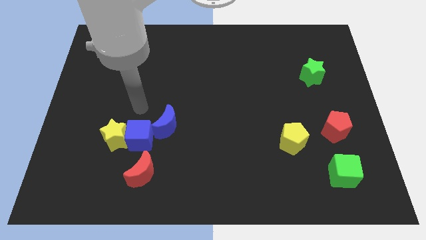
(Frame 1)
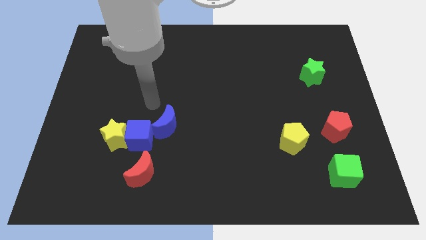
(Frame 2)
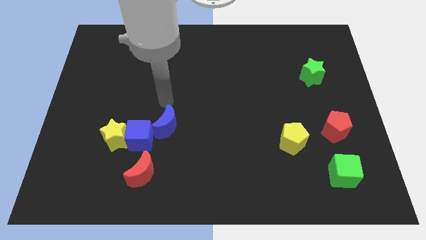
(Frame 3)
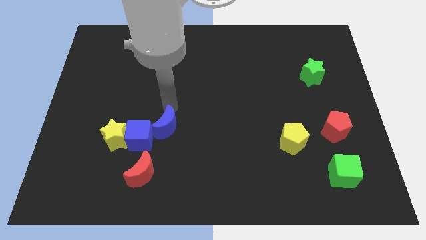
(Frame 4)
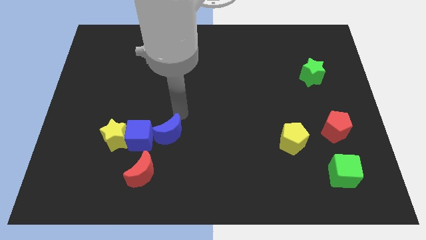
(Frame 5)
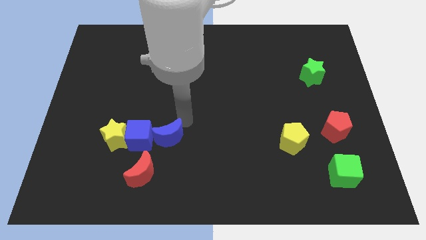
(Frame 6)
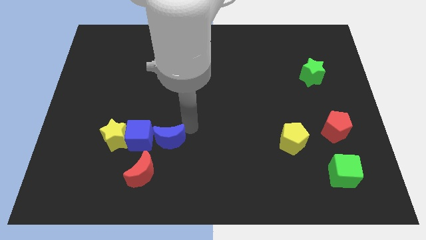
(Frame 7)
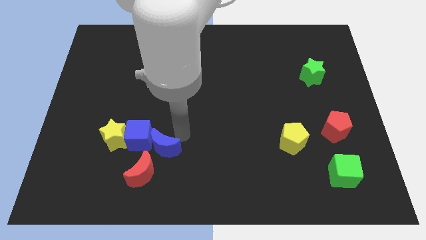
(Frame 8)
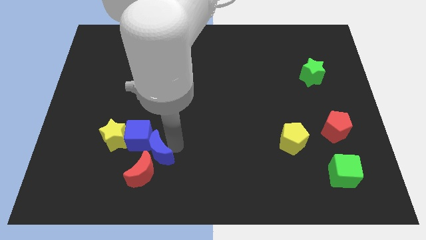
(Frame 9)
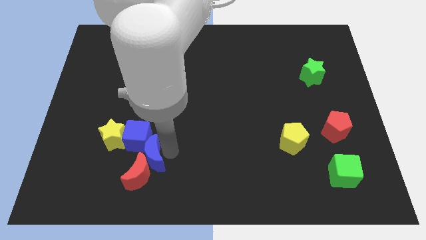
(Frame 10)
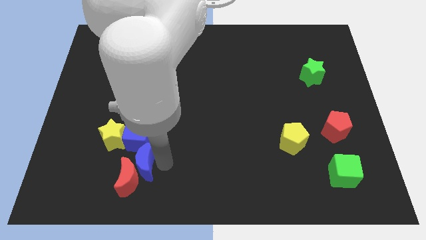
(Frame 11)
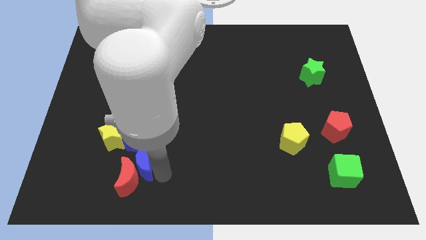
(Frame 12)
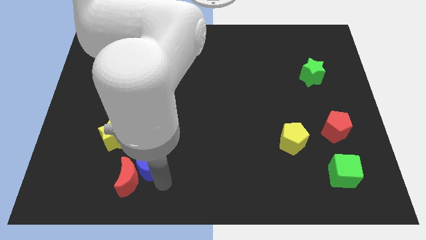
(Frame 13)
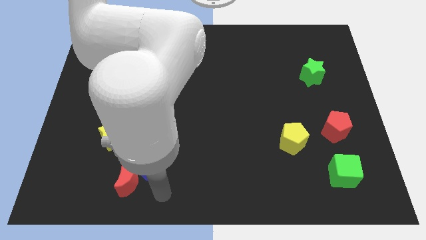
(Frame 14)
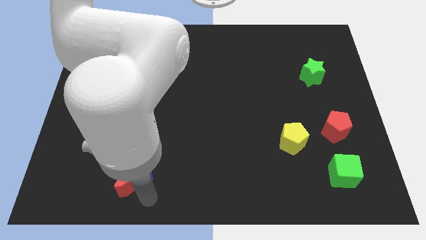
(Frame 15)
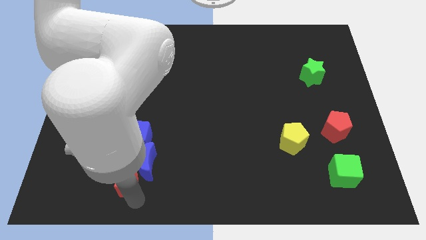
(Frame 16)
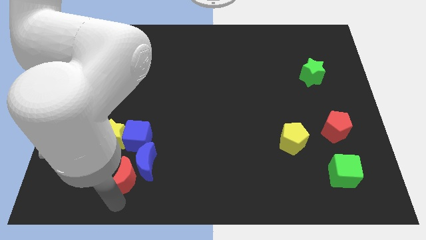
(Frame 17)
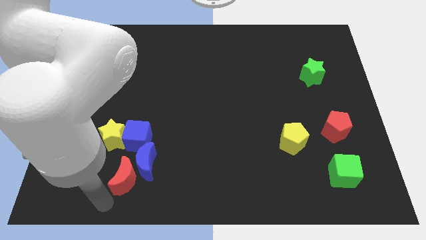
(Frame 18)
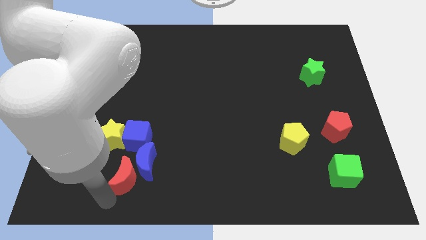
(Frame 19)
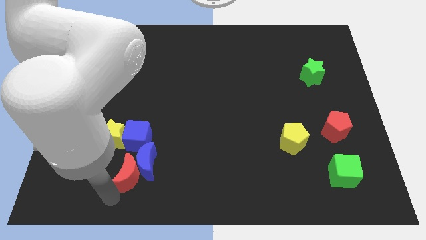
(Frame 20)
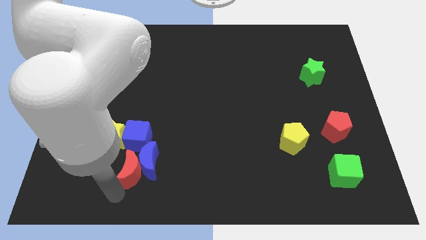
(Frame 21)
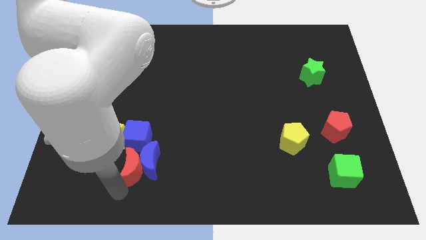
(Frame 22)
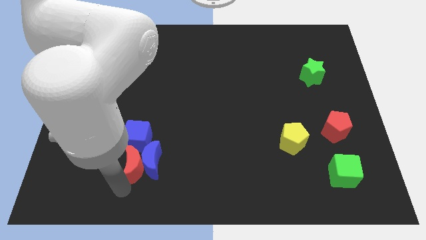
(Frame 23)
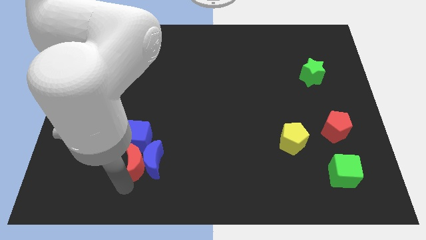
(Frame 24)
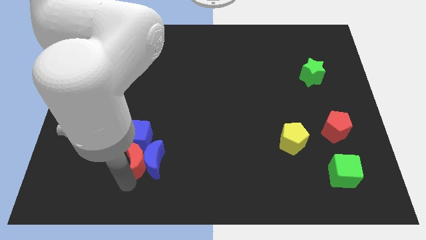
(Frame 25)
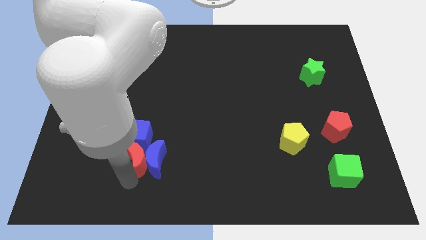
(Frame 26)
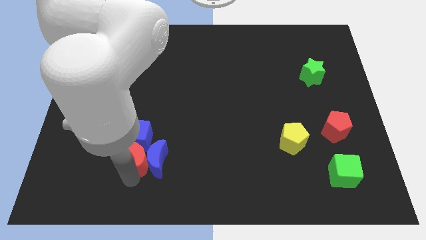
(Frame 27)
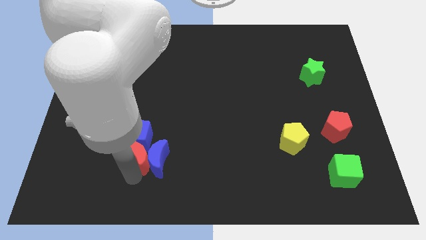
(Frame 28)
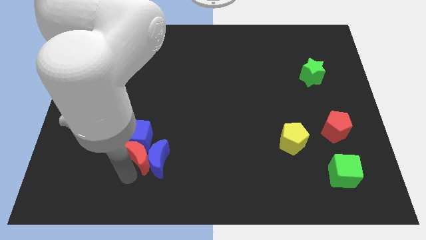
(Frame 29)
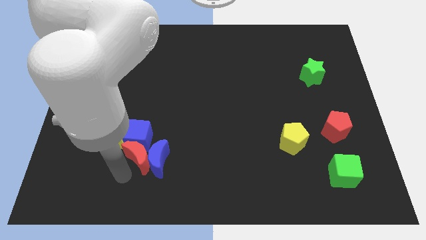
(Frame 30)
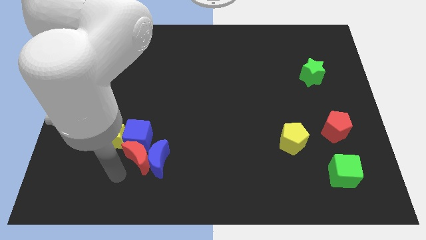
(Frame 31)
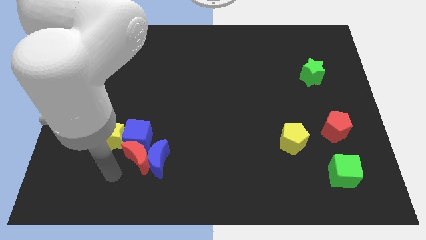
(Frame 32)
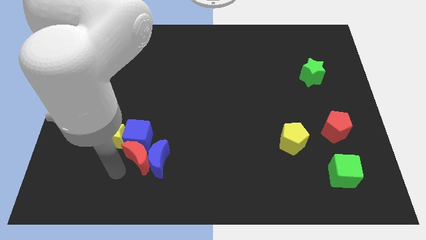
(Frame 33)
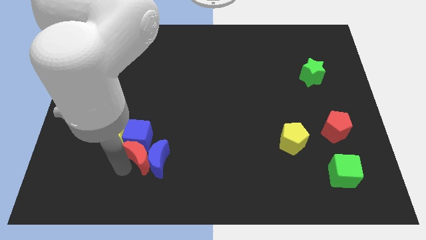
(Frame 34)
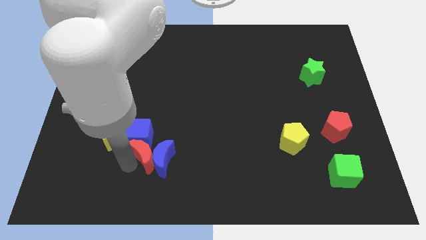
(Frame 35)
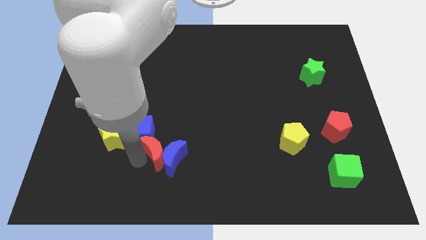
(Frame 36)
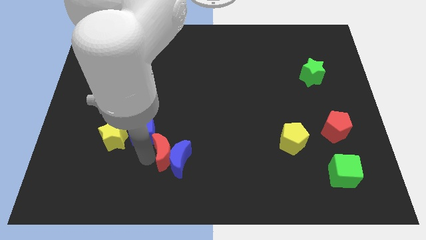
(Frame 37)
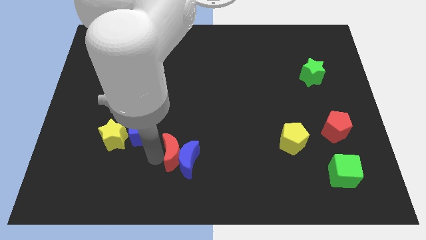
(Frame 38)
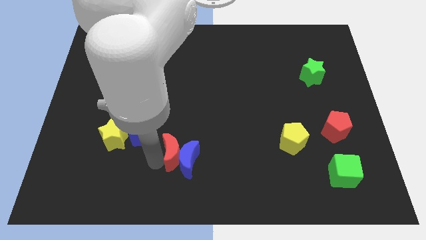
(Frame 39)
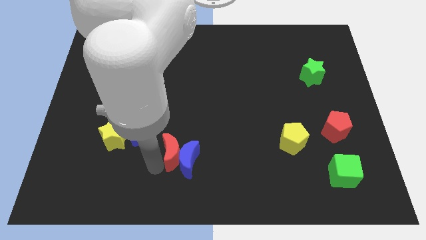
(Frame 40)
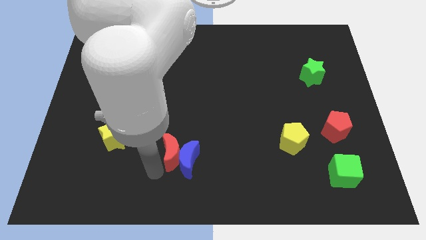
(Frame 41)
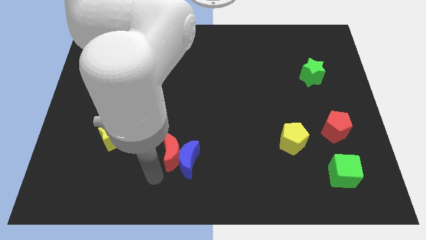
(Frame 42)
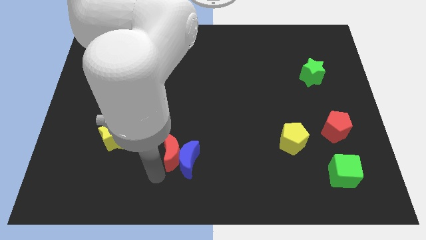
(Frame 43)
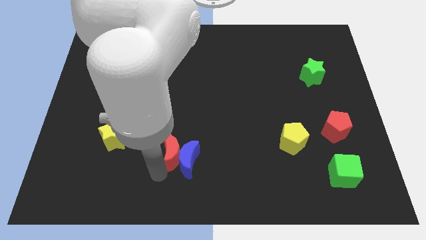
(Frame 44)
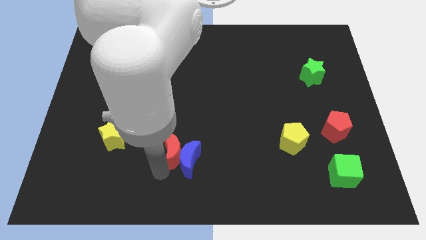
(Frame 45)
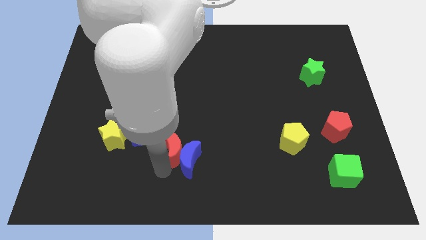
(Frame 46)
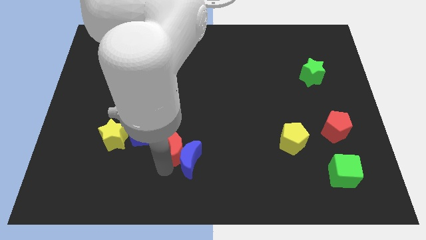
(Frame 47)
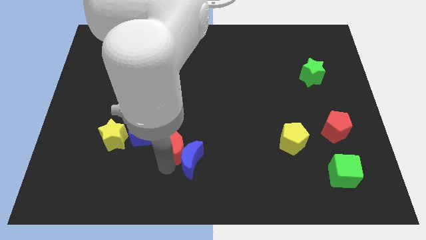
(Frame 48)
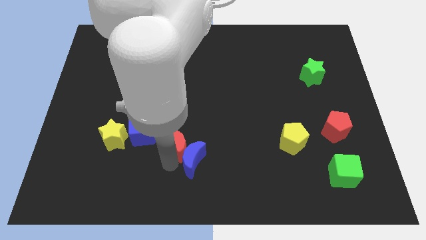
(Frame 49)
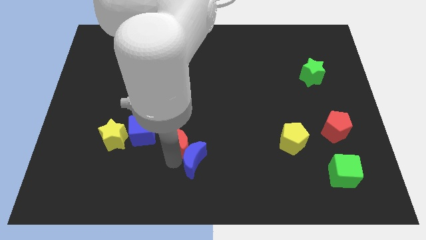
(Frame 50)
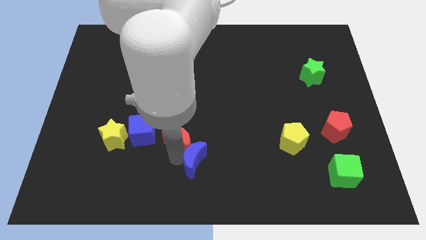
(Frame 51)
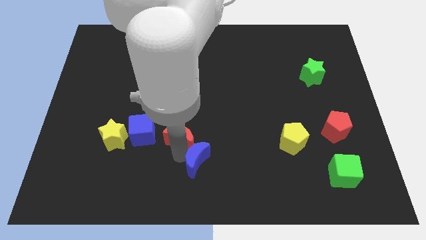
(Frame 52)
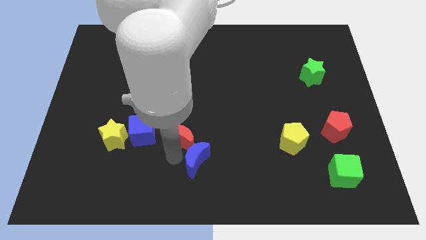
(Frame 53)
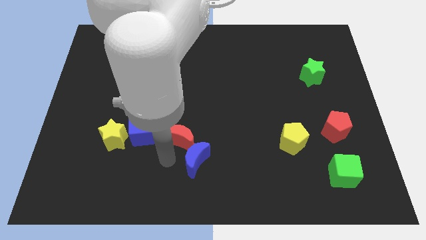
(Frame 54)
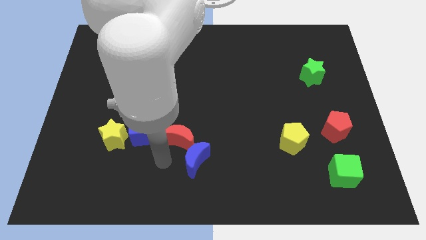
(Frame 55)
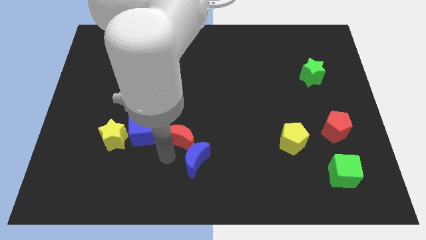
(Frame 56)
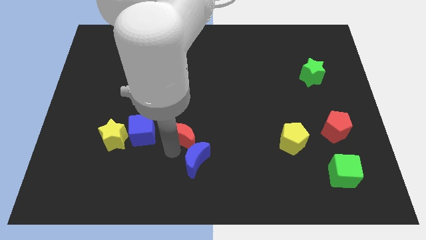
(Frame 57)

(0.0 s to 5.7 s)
push the red moon to the center

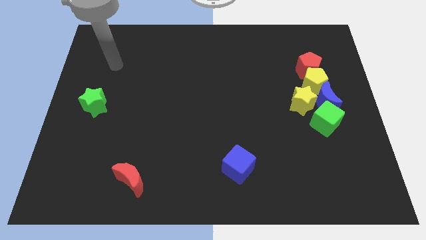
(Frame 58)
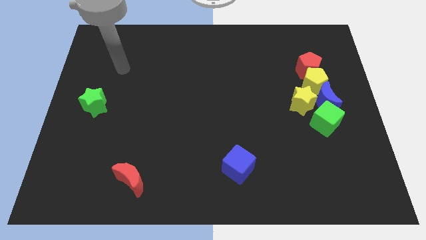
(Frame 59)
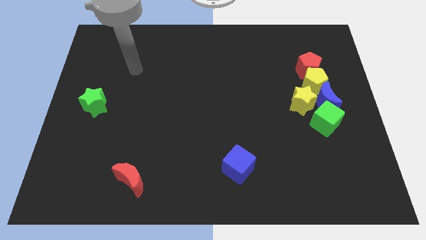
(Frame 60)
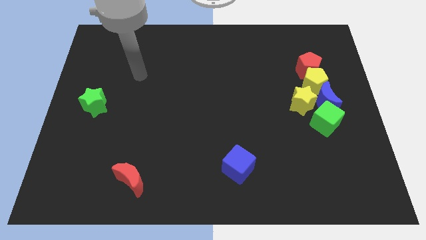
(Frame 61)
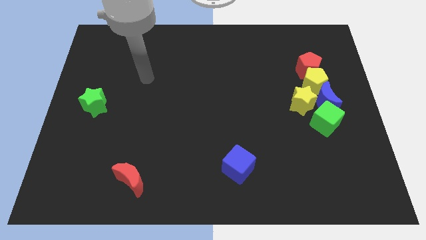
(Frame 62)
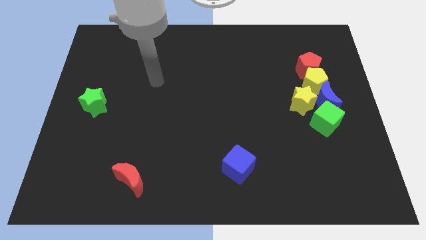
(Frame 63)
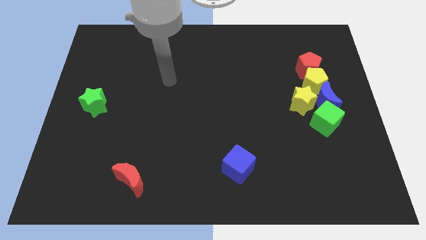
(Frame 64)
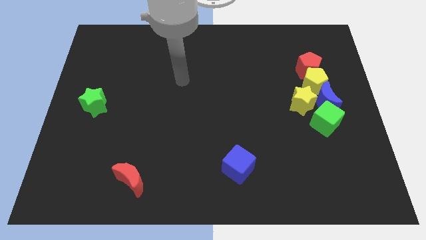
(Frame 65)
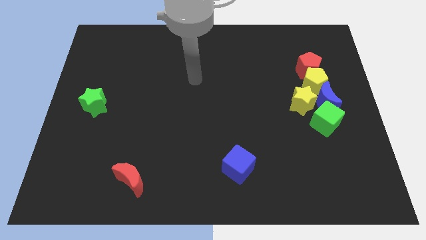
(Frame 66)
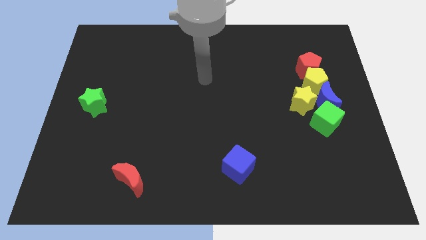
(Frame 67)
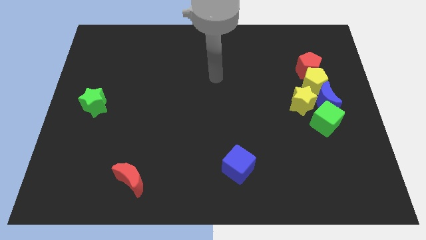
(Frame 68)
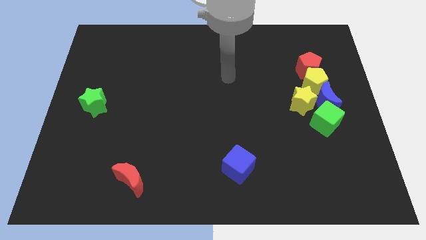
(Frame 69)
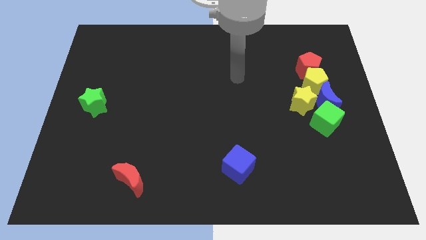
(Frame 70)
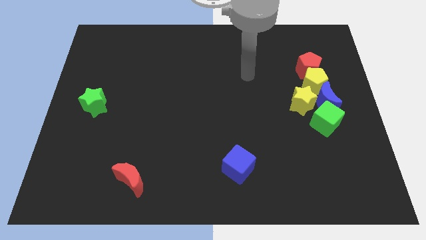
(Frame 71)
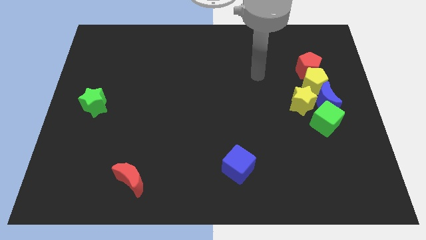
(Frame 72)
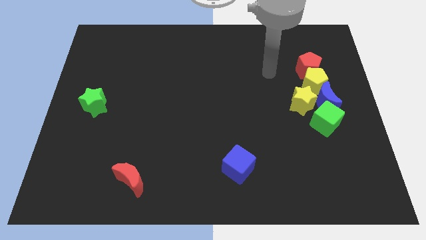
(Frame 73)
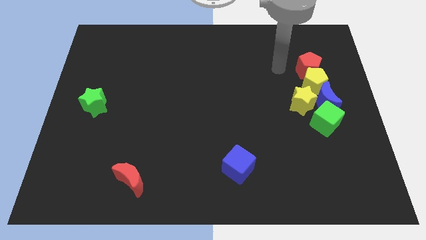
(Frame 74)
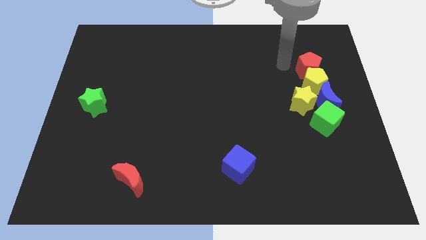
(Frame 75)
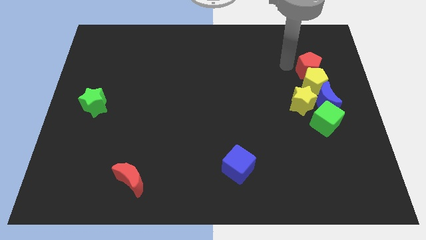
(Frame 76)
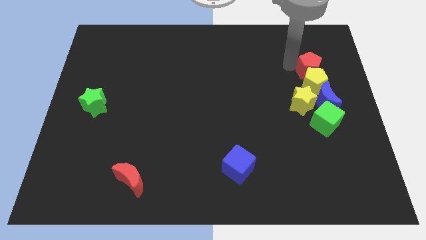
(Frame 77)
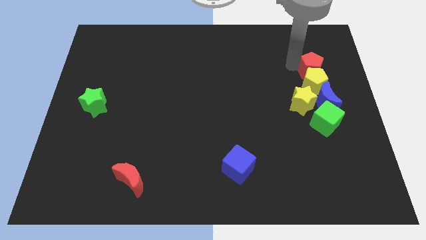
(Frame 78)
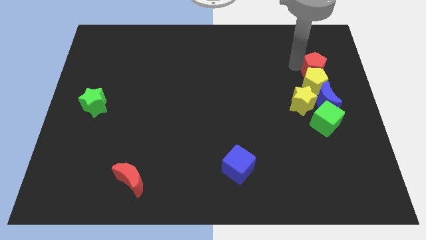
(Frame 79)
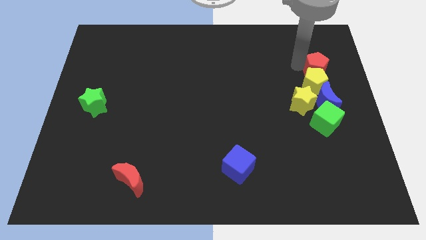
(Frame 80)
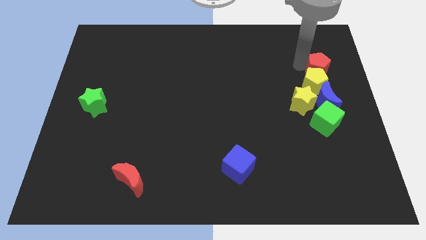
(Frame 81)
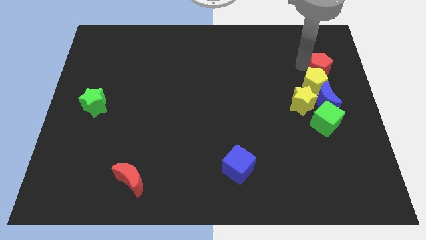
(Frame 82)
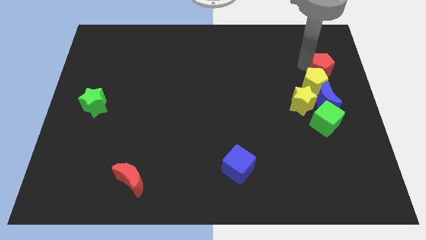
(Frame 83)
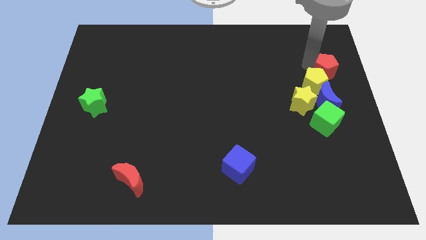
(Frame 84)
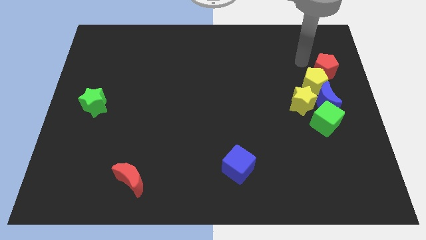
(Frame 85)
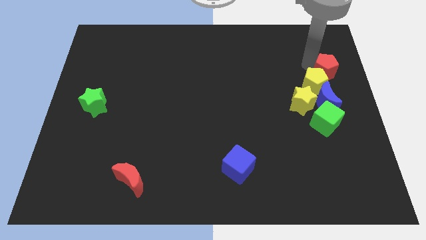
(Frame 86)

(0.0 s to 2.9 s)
push the red pentagon to the center right
